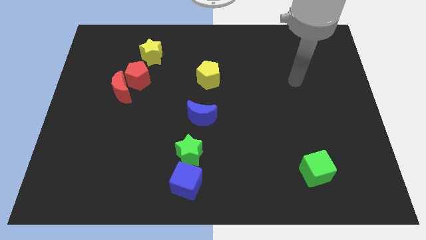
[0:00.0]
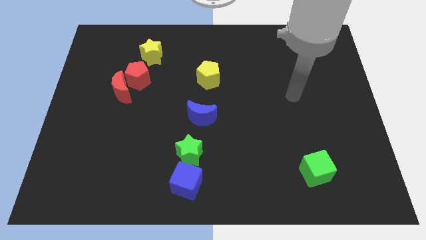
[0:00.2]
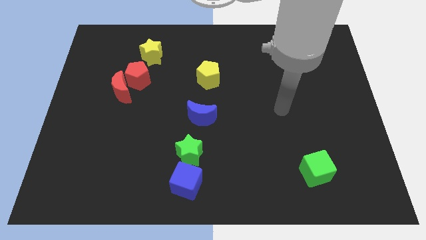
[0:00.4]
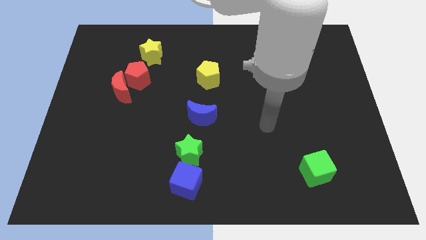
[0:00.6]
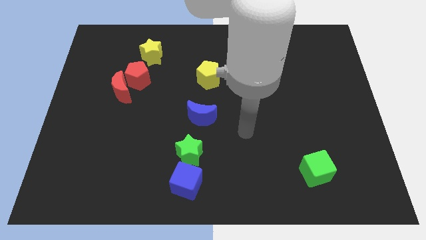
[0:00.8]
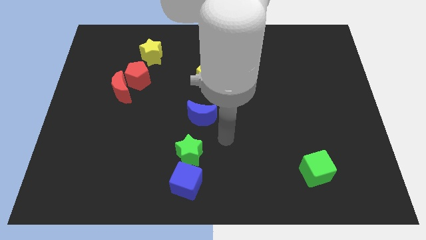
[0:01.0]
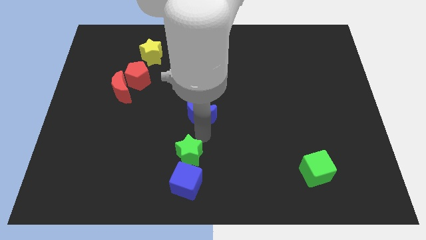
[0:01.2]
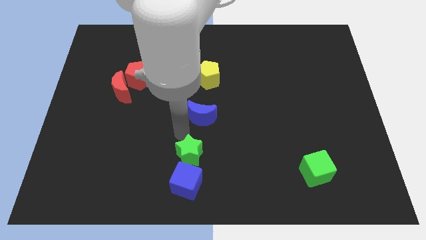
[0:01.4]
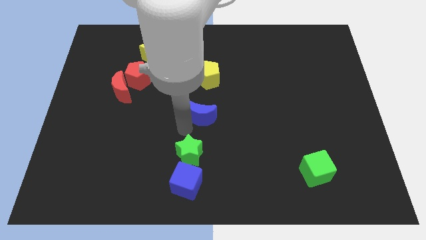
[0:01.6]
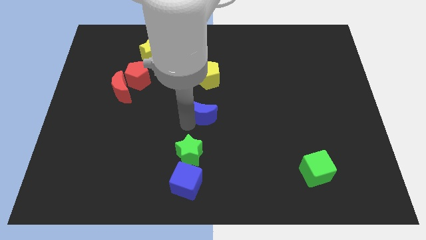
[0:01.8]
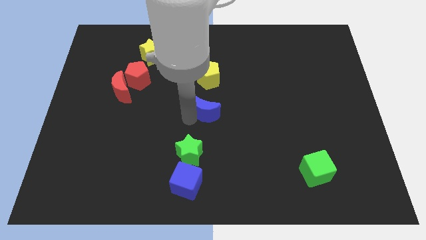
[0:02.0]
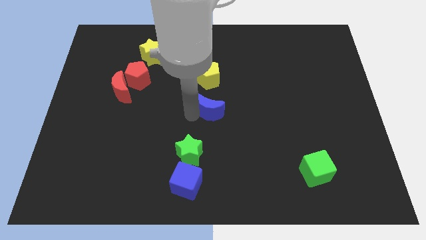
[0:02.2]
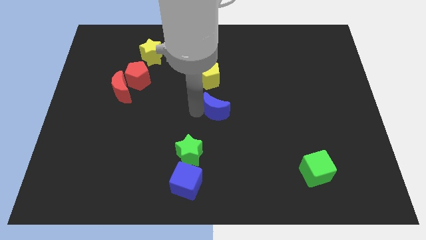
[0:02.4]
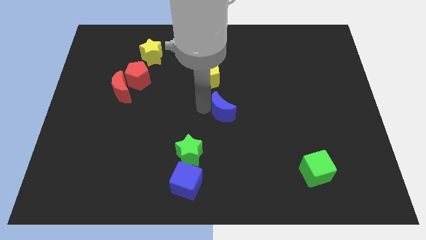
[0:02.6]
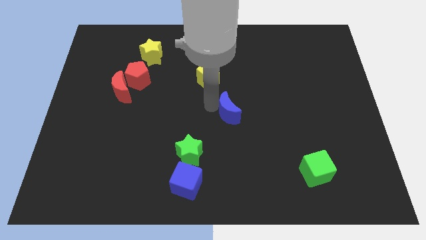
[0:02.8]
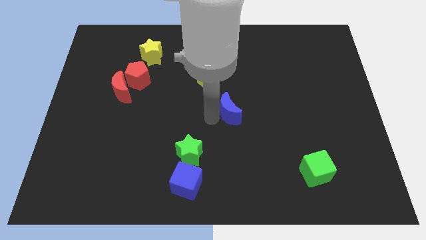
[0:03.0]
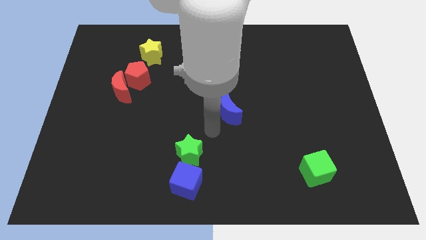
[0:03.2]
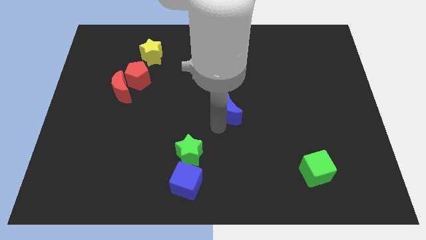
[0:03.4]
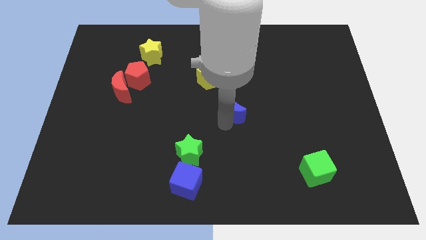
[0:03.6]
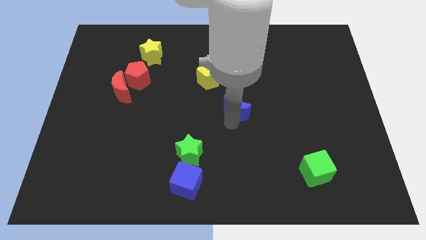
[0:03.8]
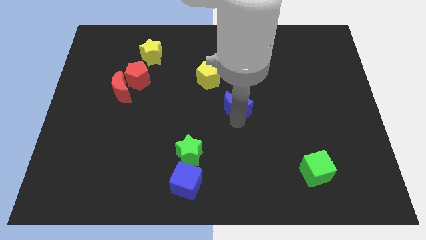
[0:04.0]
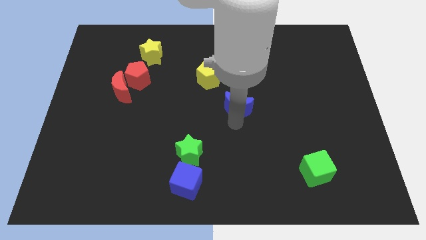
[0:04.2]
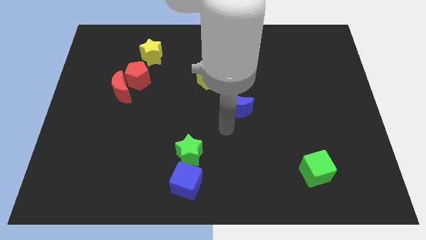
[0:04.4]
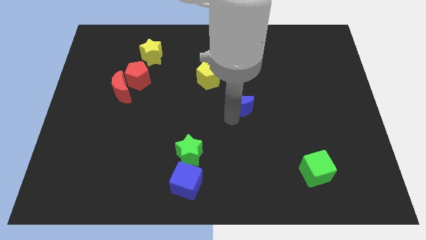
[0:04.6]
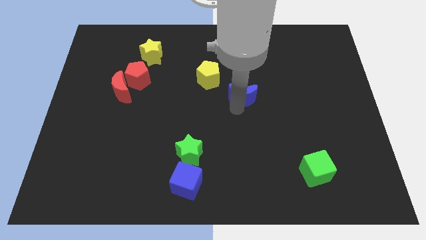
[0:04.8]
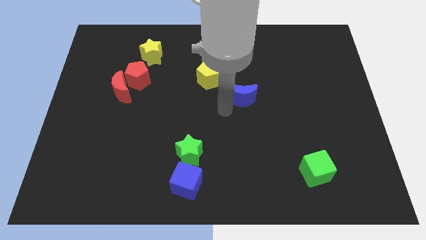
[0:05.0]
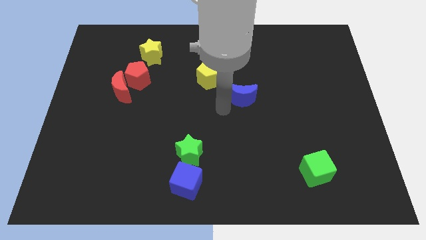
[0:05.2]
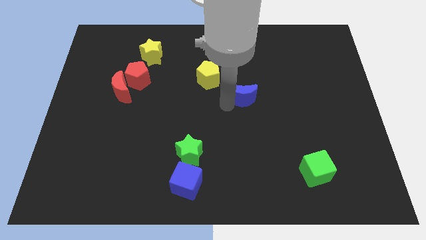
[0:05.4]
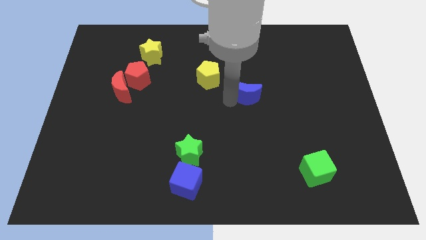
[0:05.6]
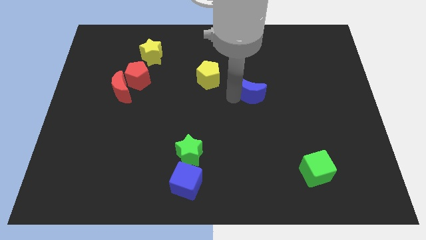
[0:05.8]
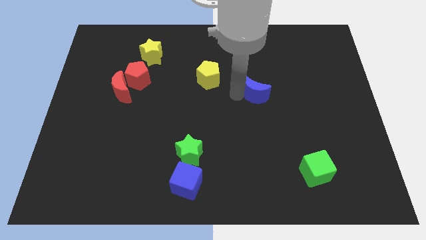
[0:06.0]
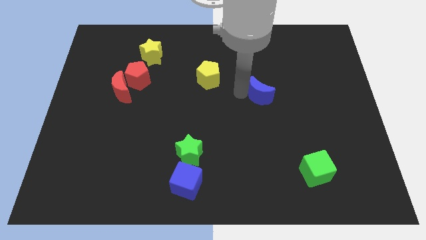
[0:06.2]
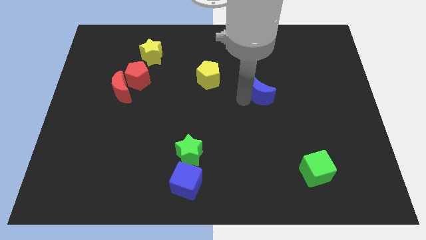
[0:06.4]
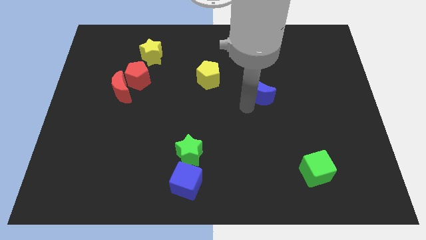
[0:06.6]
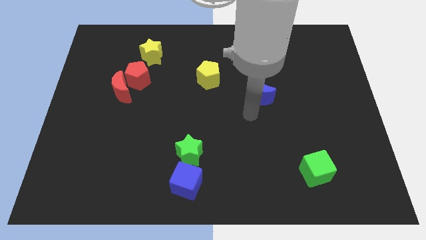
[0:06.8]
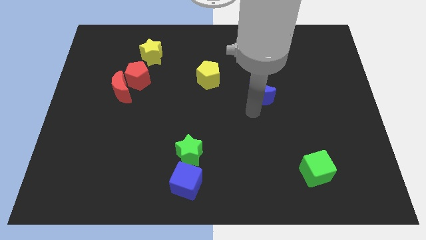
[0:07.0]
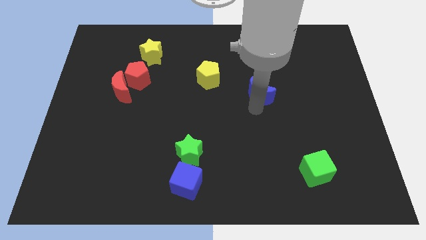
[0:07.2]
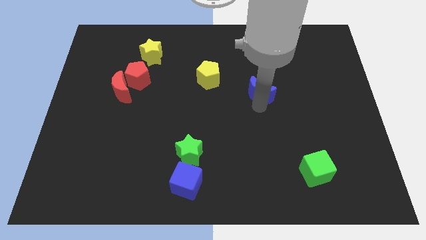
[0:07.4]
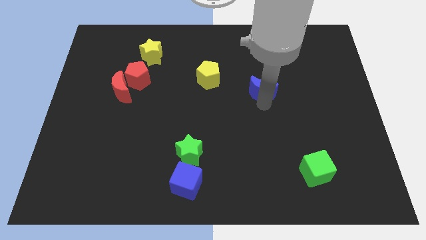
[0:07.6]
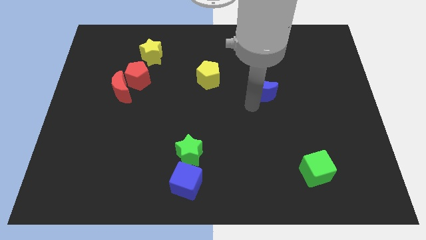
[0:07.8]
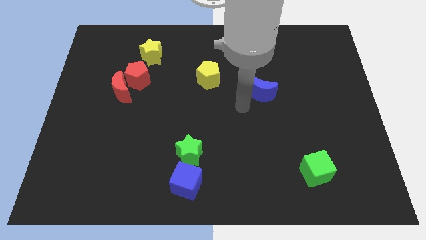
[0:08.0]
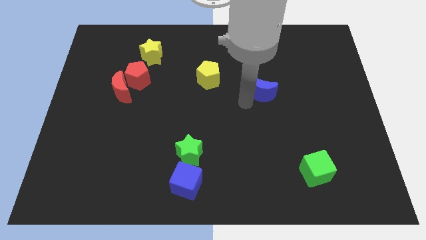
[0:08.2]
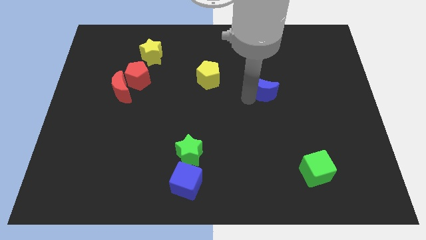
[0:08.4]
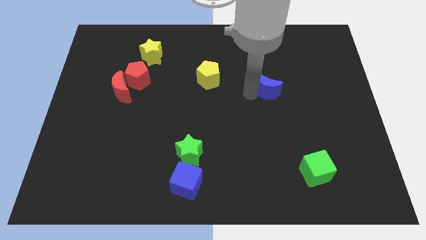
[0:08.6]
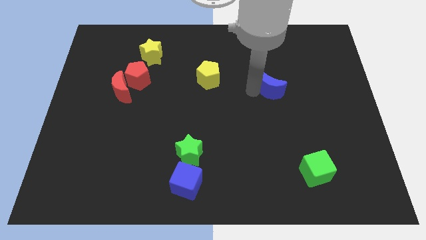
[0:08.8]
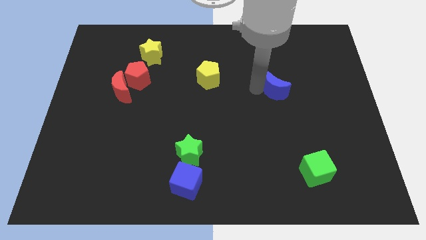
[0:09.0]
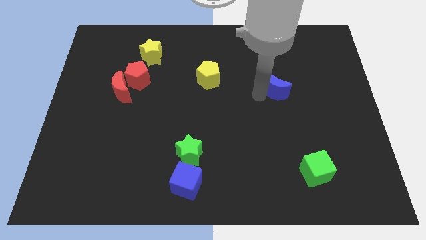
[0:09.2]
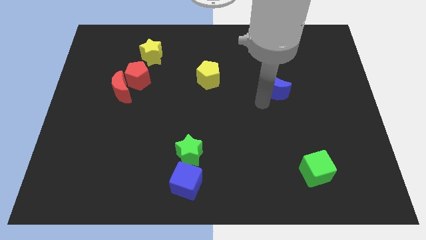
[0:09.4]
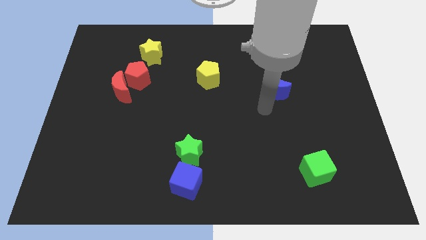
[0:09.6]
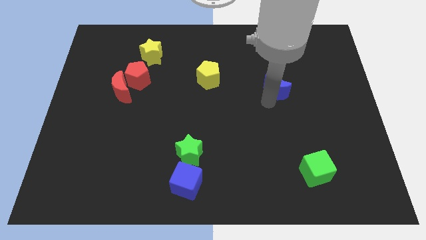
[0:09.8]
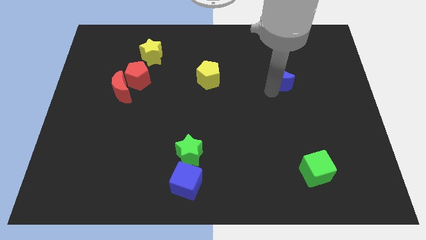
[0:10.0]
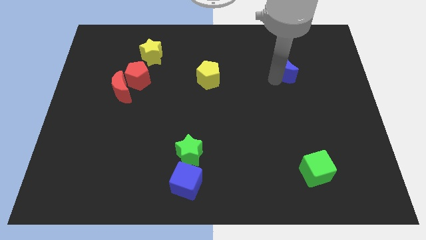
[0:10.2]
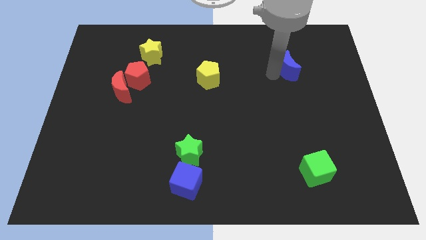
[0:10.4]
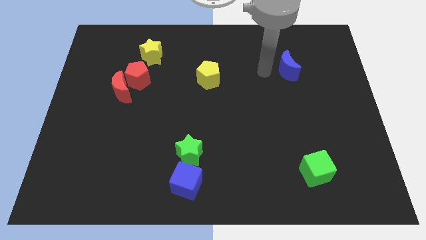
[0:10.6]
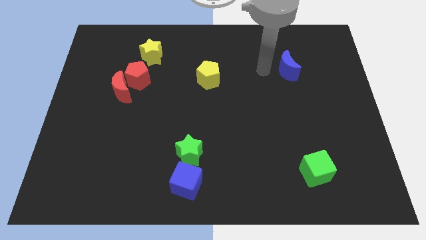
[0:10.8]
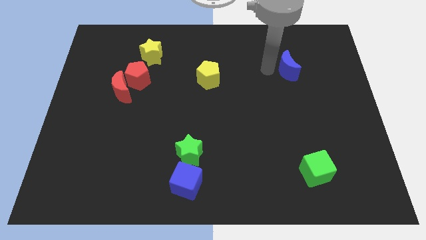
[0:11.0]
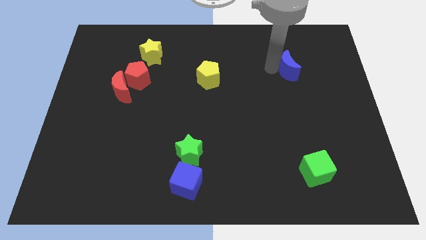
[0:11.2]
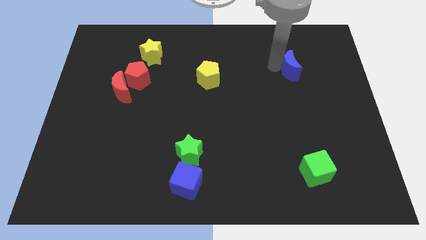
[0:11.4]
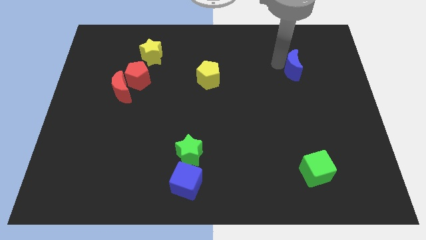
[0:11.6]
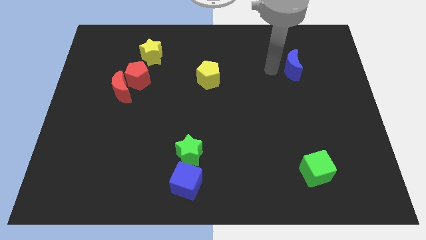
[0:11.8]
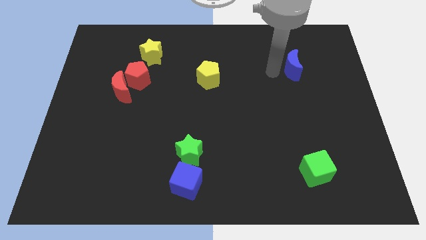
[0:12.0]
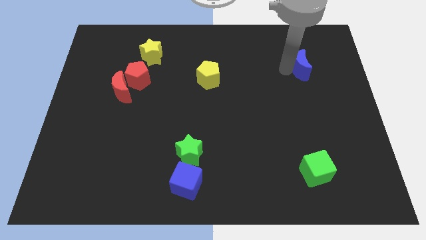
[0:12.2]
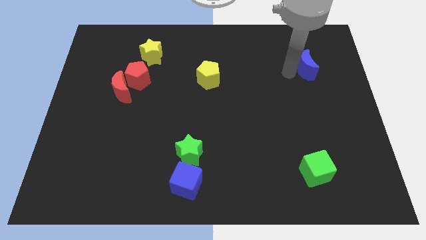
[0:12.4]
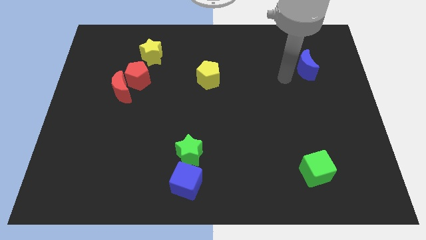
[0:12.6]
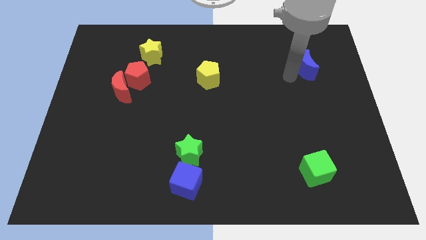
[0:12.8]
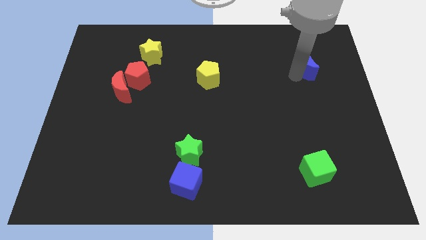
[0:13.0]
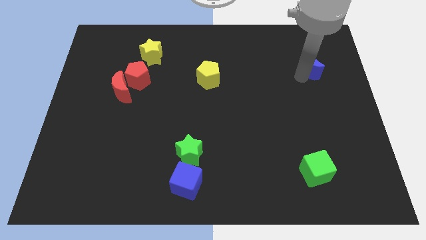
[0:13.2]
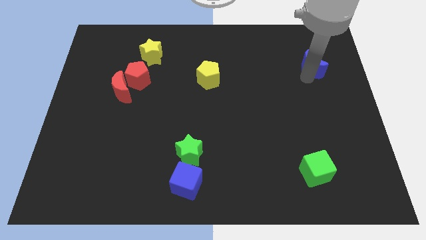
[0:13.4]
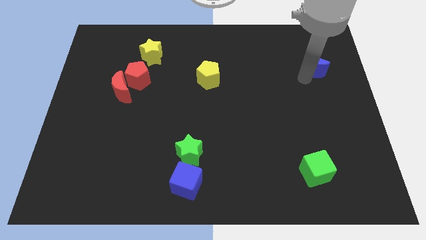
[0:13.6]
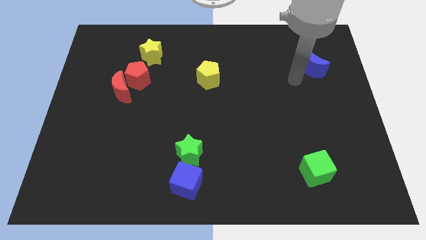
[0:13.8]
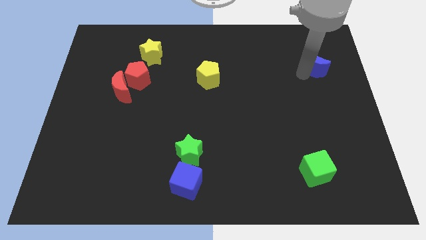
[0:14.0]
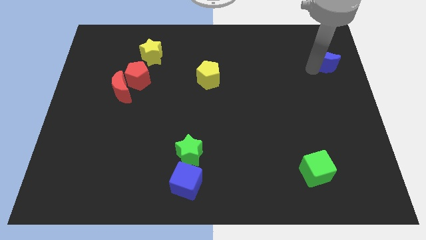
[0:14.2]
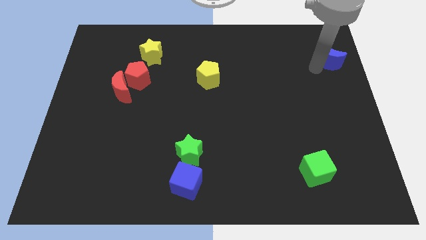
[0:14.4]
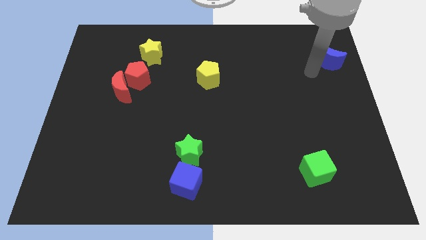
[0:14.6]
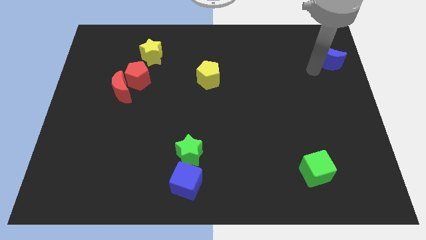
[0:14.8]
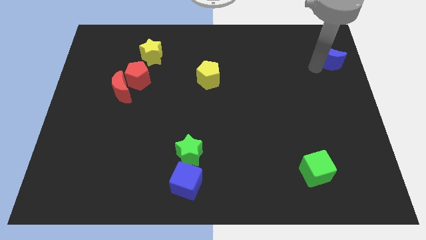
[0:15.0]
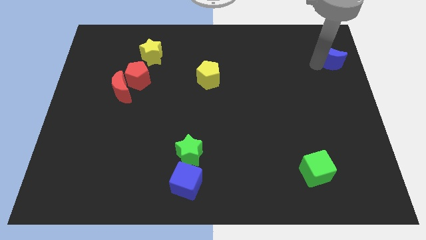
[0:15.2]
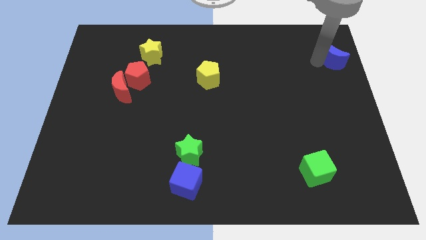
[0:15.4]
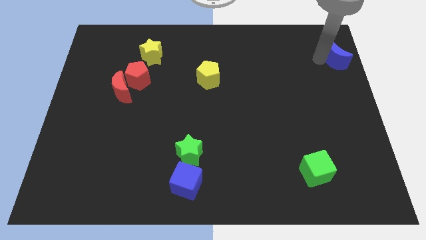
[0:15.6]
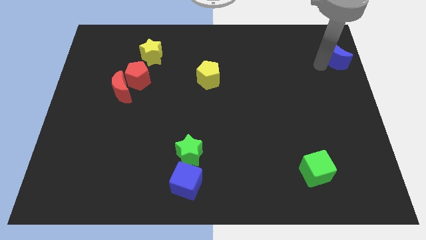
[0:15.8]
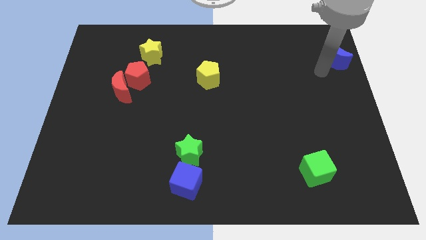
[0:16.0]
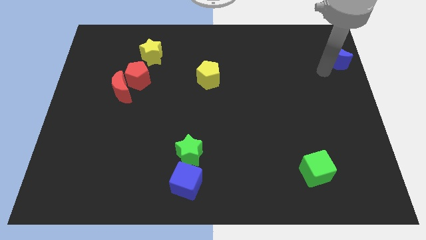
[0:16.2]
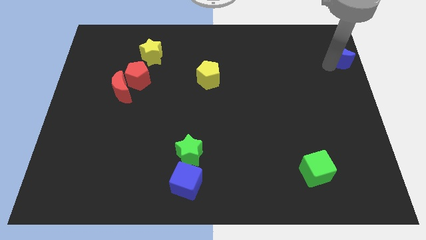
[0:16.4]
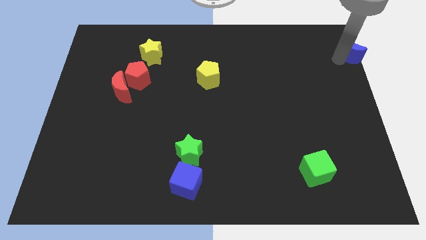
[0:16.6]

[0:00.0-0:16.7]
move the blue moon to the top right of the board
